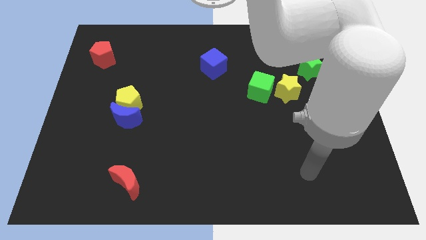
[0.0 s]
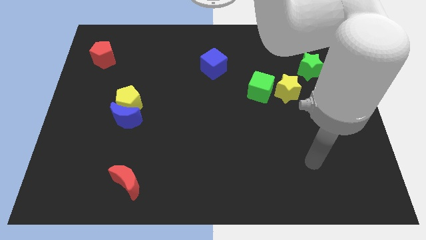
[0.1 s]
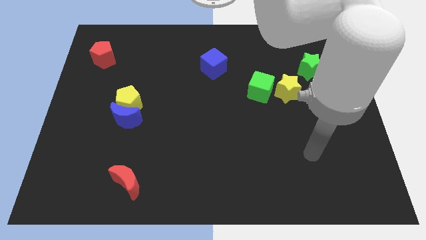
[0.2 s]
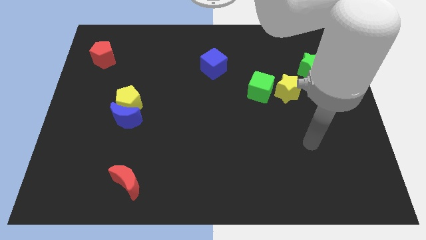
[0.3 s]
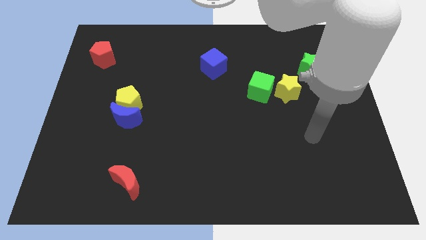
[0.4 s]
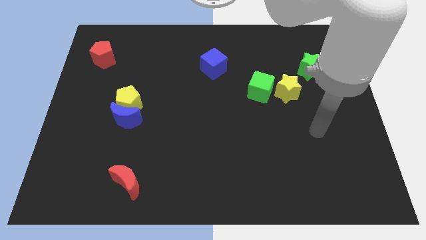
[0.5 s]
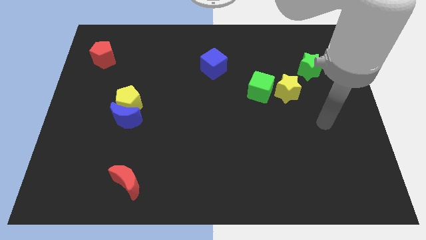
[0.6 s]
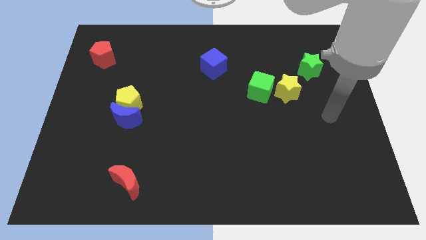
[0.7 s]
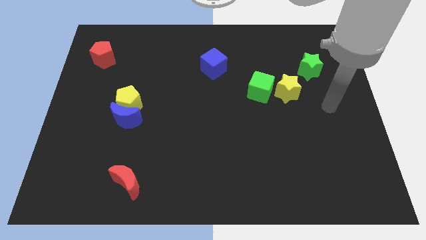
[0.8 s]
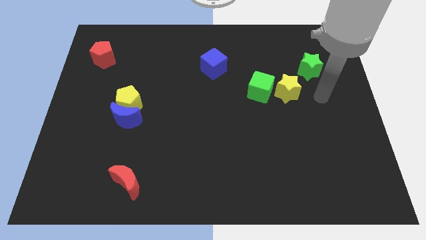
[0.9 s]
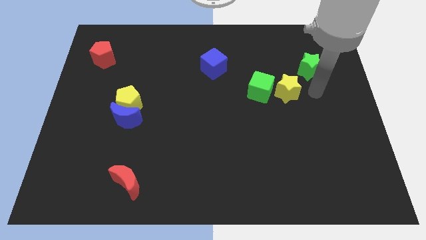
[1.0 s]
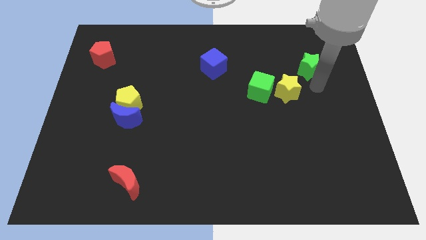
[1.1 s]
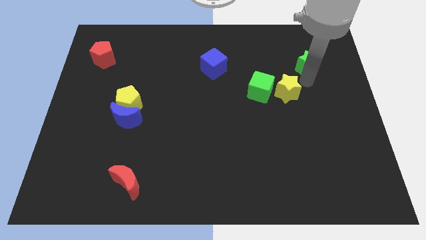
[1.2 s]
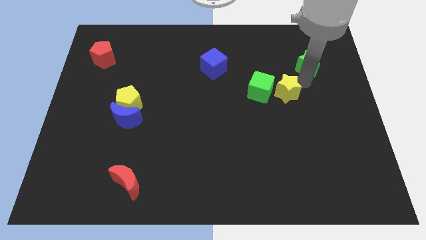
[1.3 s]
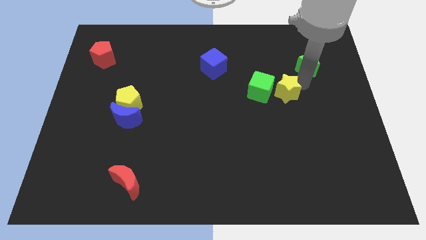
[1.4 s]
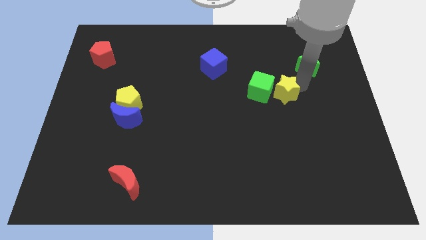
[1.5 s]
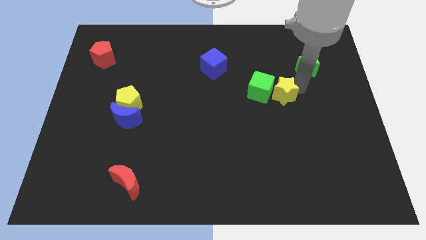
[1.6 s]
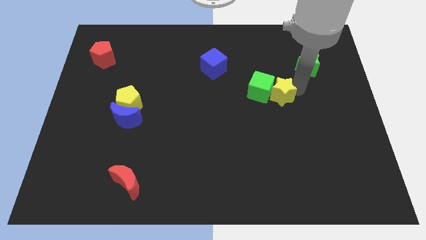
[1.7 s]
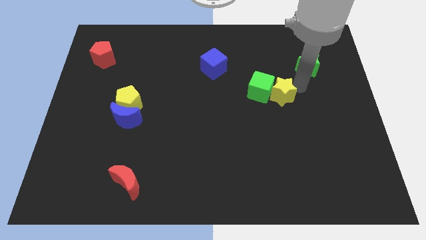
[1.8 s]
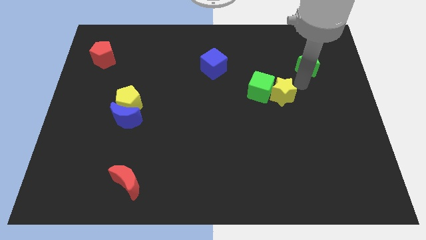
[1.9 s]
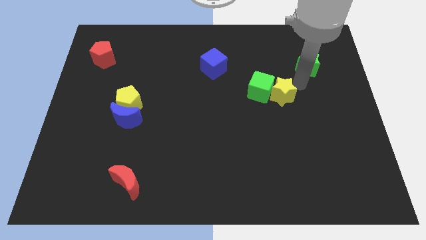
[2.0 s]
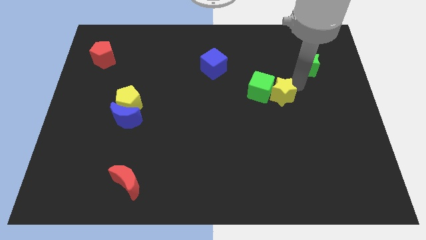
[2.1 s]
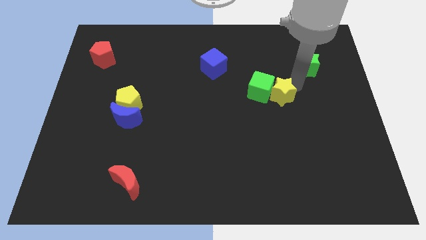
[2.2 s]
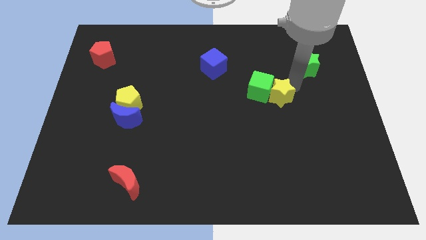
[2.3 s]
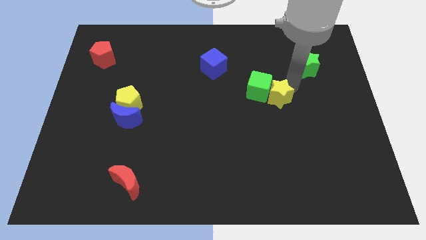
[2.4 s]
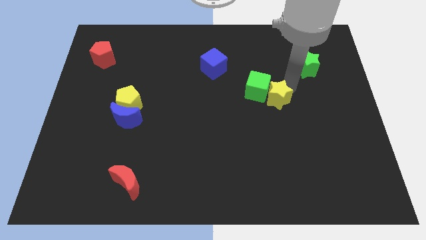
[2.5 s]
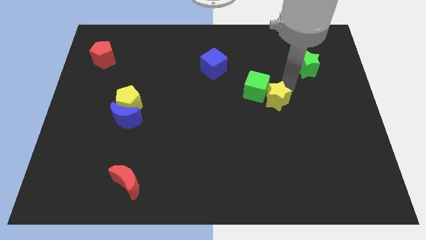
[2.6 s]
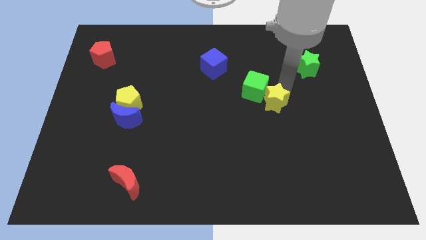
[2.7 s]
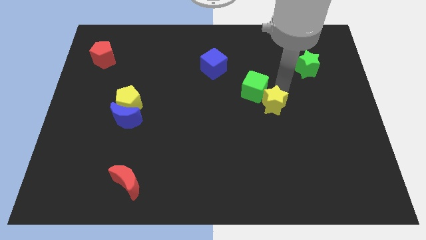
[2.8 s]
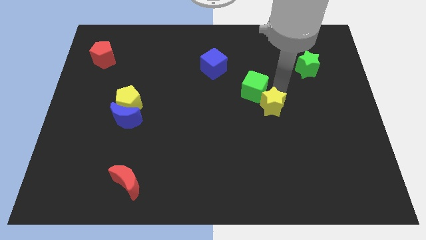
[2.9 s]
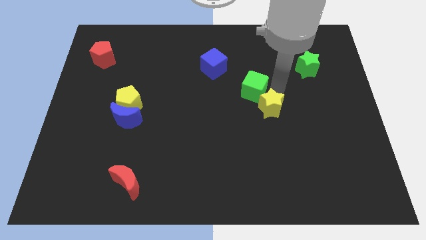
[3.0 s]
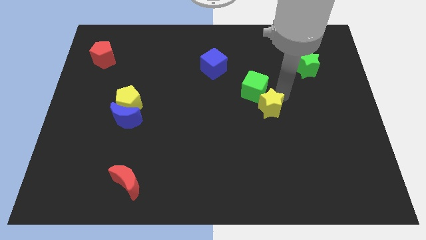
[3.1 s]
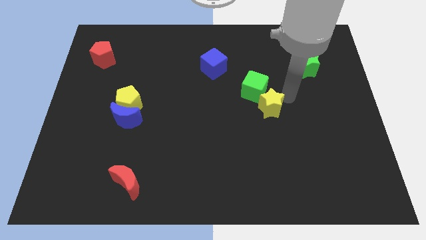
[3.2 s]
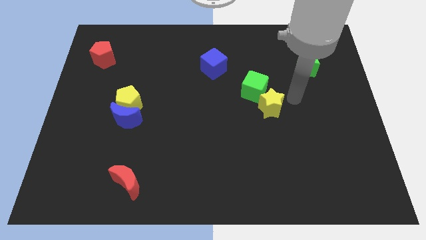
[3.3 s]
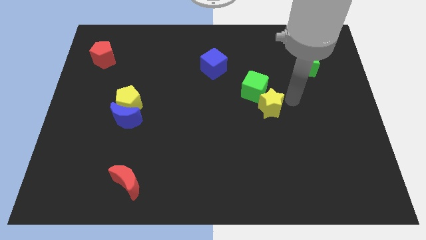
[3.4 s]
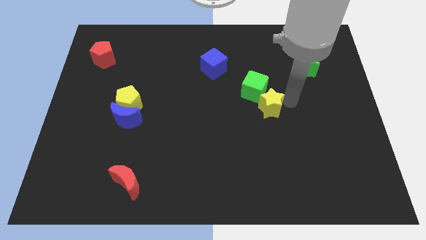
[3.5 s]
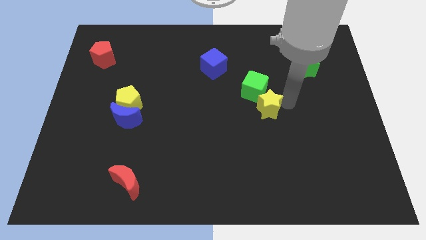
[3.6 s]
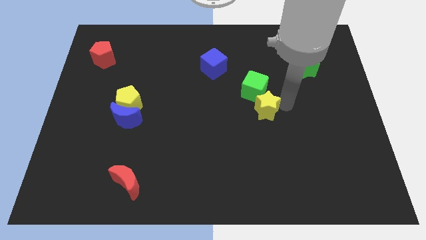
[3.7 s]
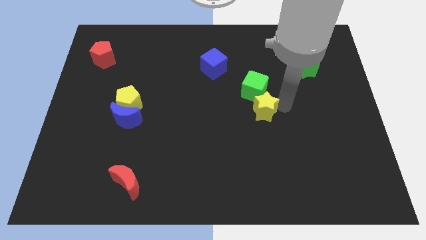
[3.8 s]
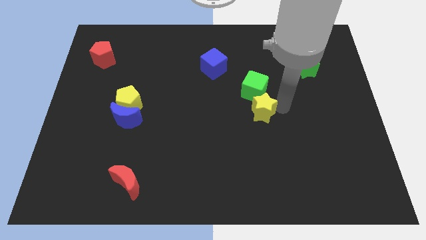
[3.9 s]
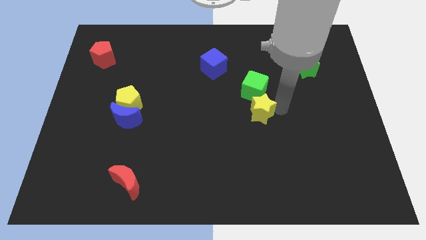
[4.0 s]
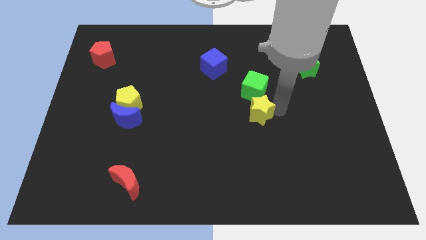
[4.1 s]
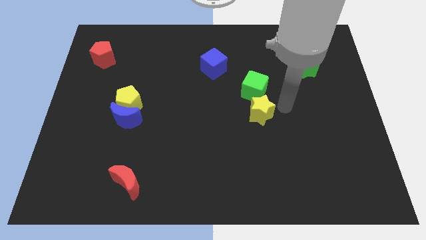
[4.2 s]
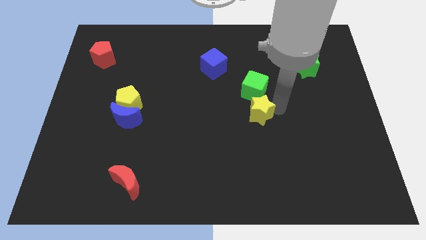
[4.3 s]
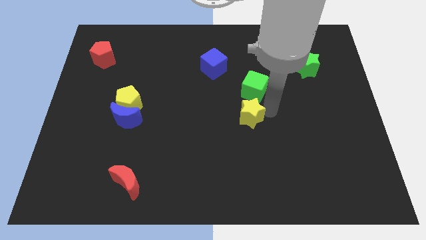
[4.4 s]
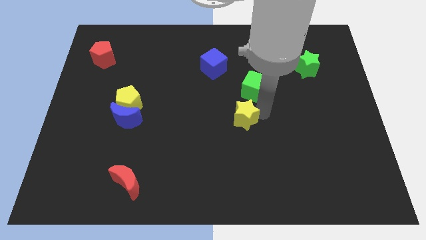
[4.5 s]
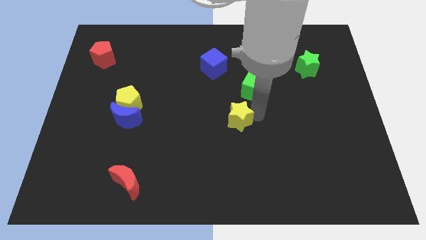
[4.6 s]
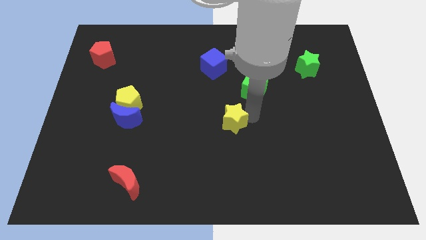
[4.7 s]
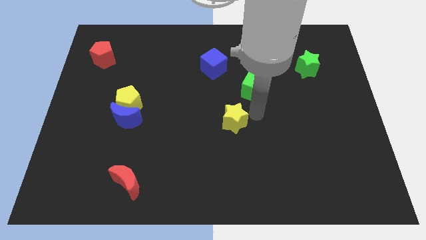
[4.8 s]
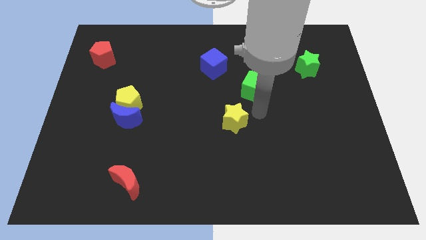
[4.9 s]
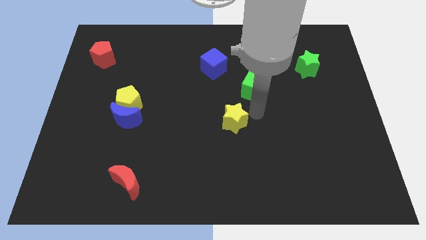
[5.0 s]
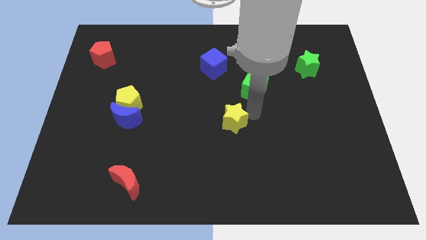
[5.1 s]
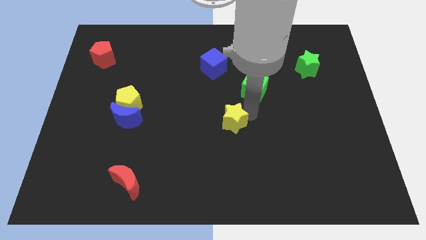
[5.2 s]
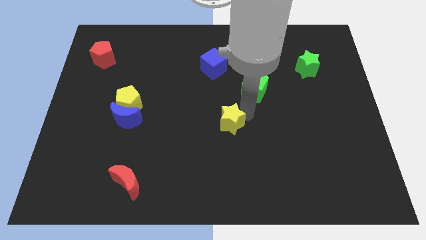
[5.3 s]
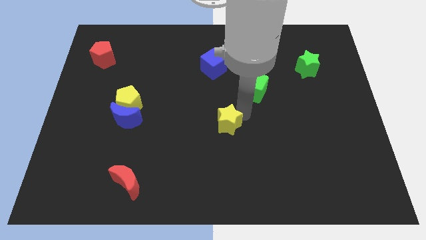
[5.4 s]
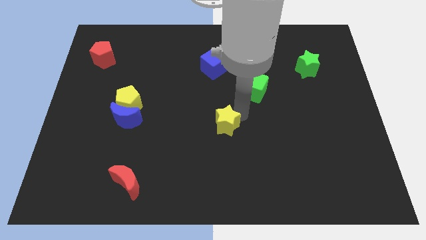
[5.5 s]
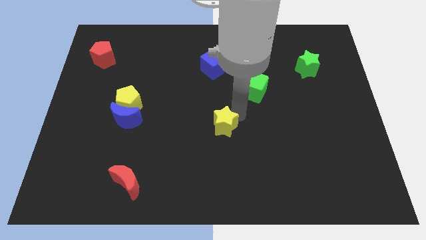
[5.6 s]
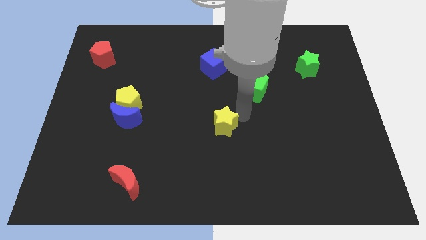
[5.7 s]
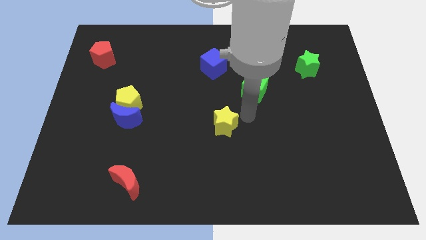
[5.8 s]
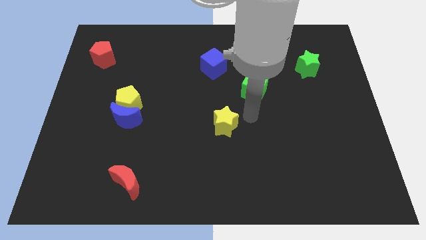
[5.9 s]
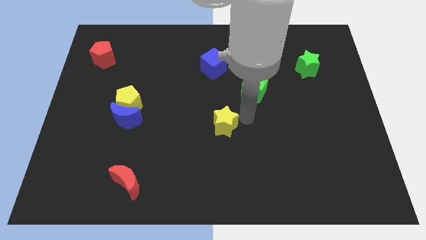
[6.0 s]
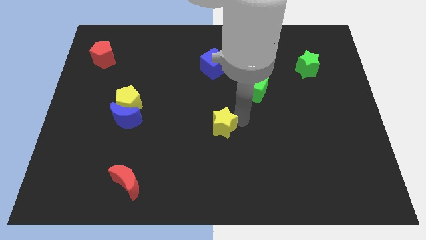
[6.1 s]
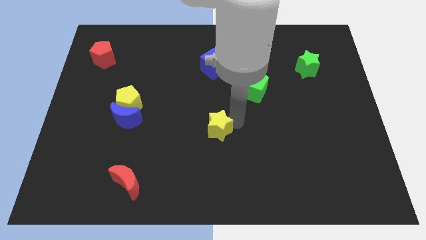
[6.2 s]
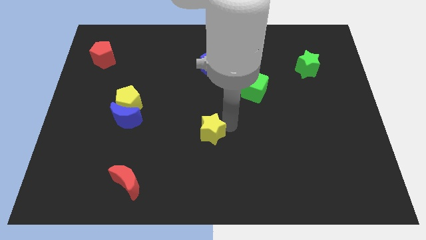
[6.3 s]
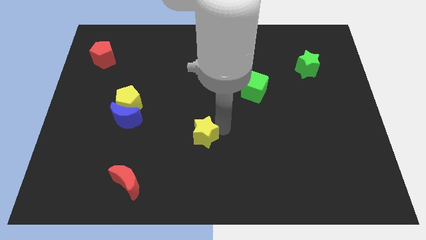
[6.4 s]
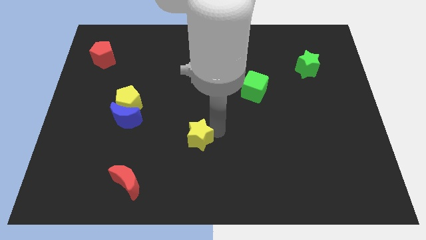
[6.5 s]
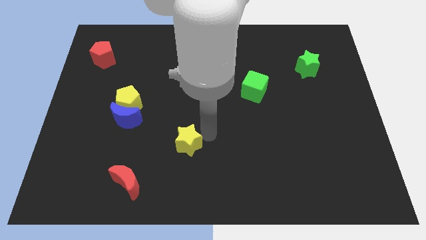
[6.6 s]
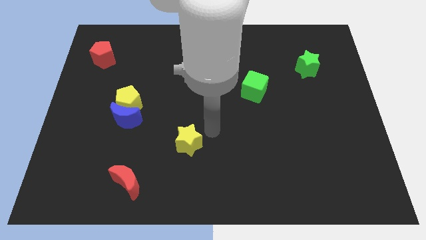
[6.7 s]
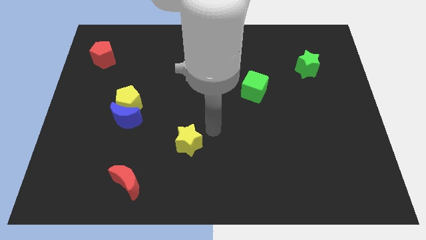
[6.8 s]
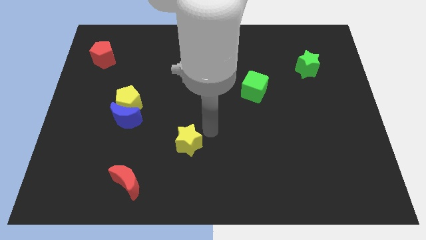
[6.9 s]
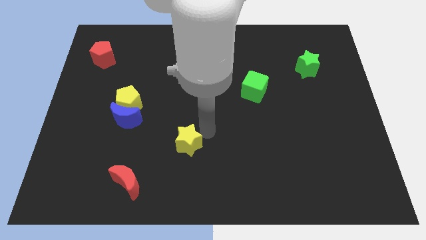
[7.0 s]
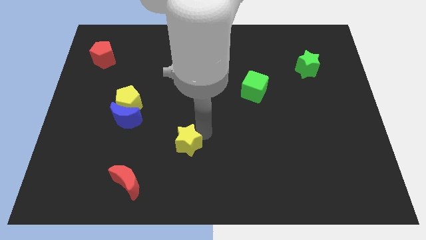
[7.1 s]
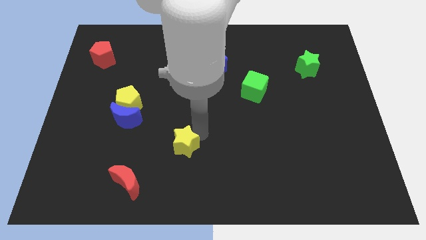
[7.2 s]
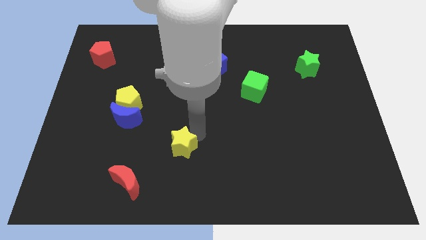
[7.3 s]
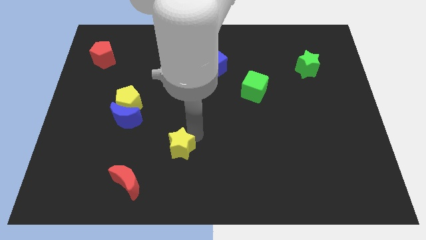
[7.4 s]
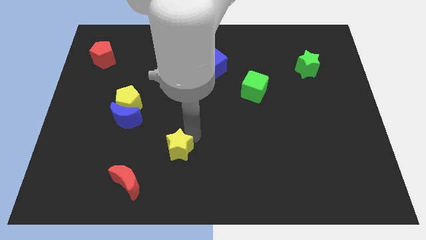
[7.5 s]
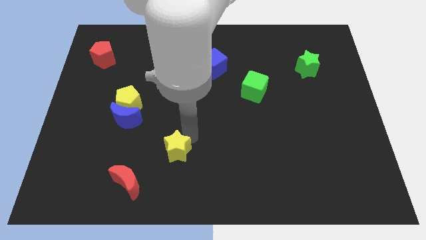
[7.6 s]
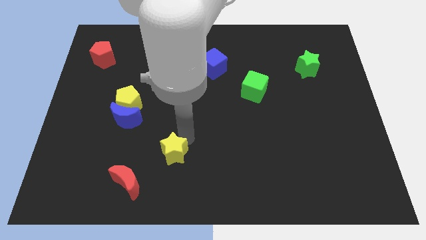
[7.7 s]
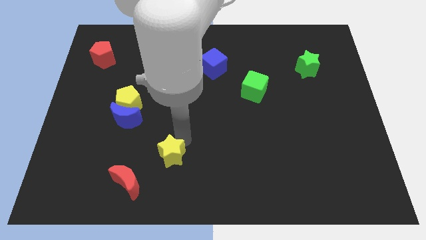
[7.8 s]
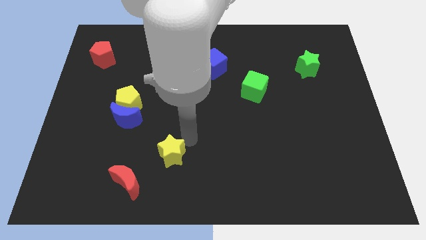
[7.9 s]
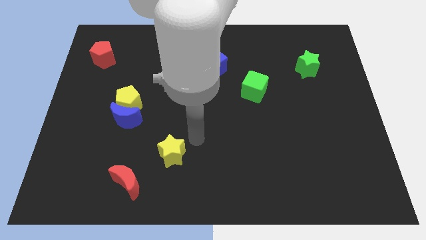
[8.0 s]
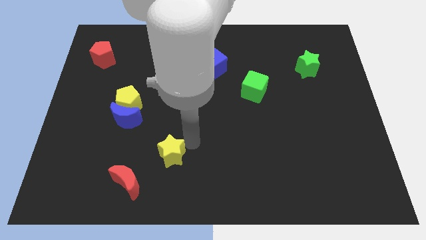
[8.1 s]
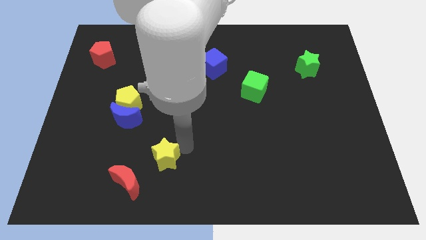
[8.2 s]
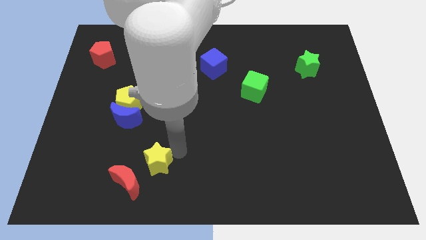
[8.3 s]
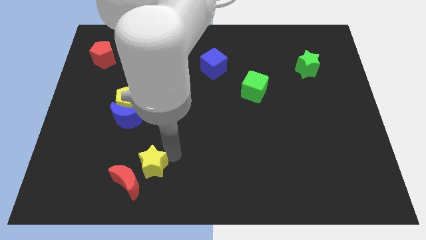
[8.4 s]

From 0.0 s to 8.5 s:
slide the yellow star towards the red moon
